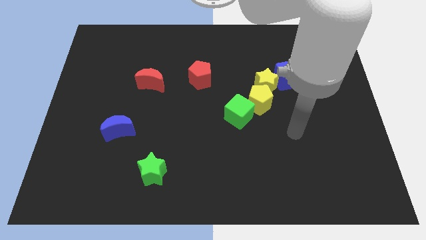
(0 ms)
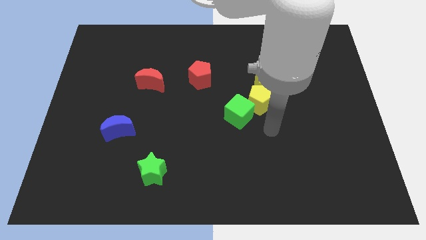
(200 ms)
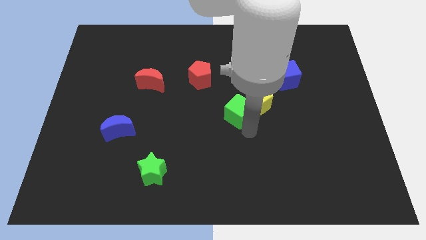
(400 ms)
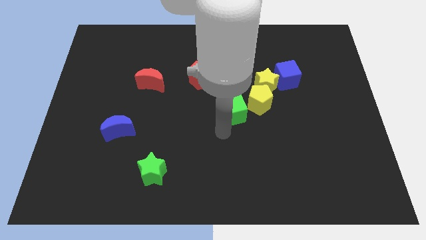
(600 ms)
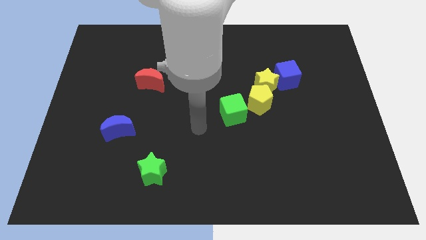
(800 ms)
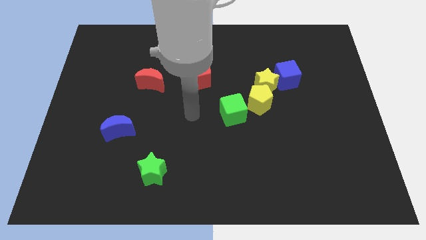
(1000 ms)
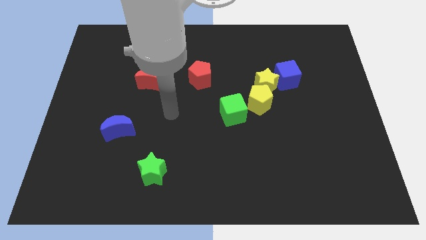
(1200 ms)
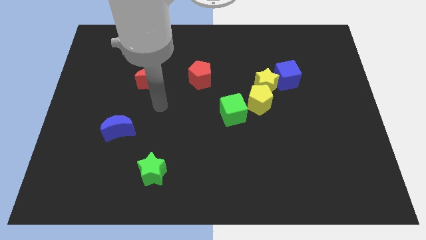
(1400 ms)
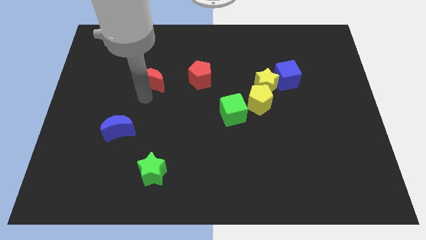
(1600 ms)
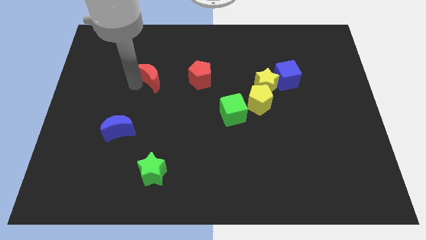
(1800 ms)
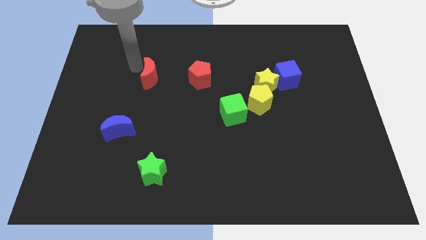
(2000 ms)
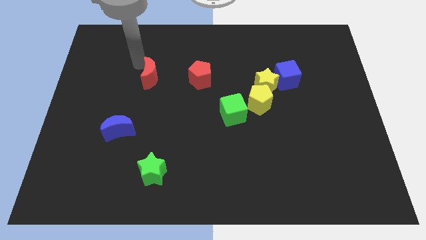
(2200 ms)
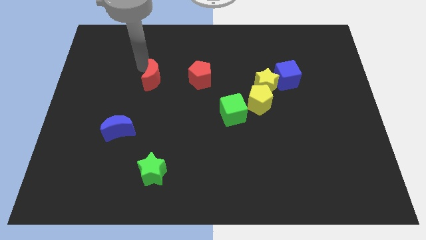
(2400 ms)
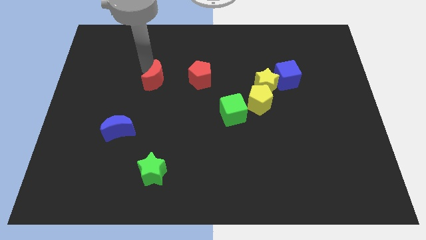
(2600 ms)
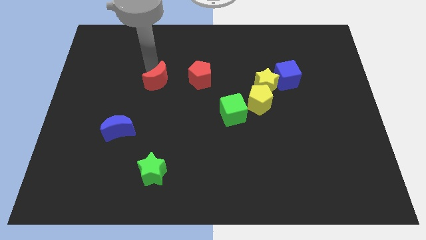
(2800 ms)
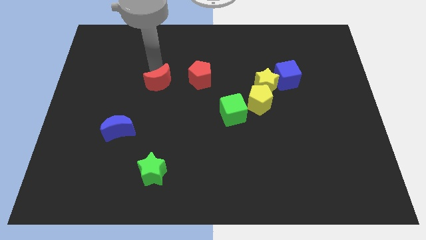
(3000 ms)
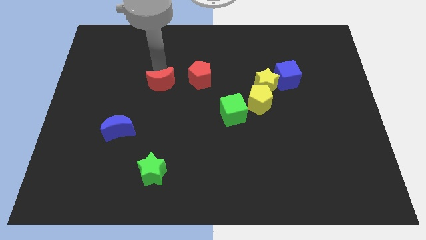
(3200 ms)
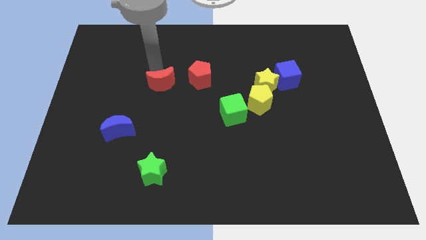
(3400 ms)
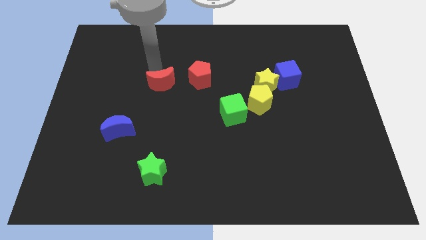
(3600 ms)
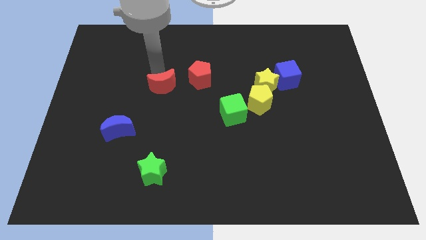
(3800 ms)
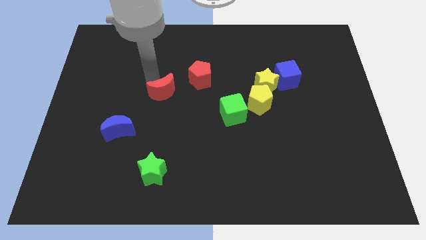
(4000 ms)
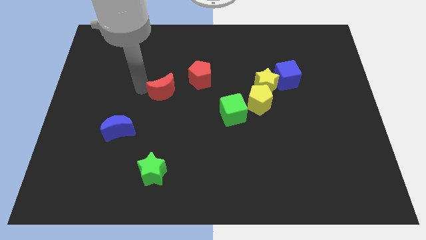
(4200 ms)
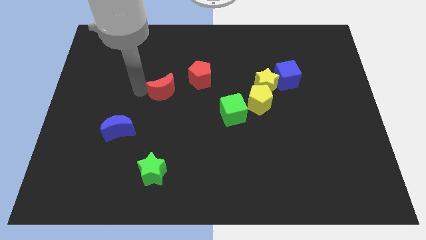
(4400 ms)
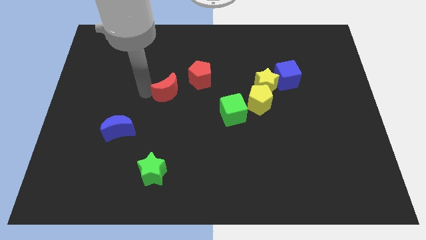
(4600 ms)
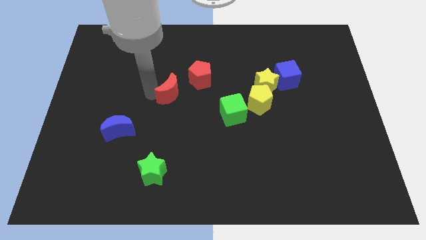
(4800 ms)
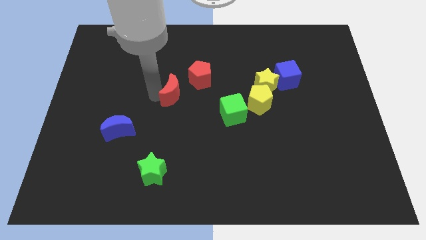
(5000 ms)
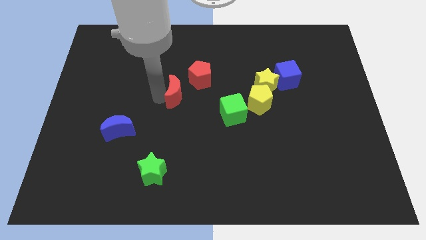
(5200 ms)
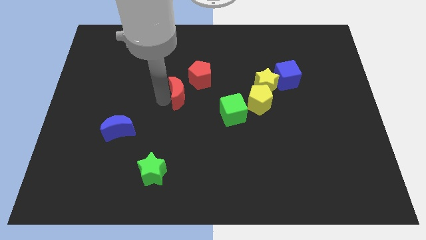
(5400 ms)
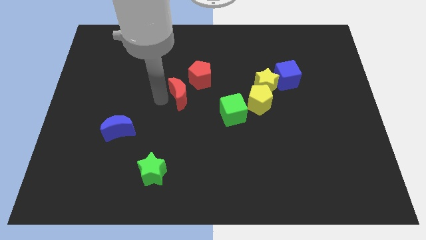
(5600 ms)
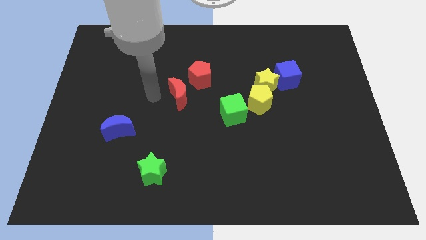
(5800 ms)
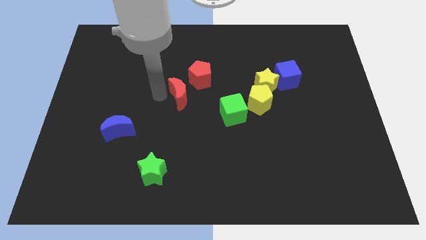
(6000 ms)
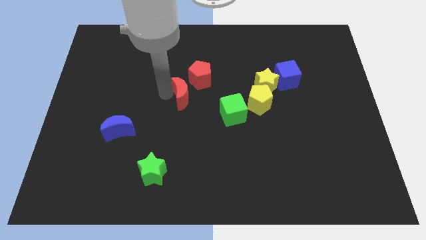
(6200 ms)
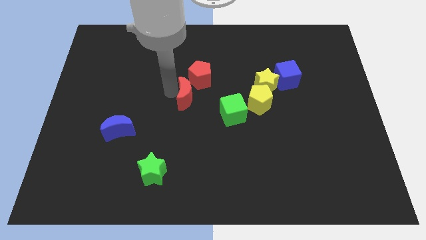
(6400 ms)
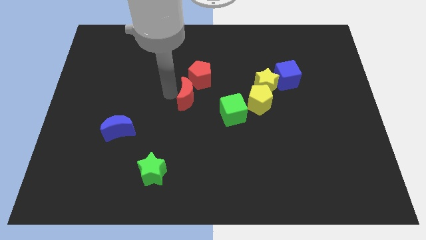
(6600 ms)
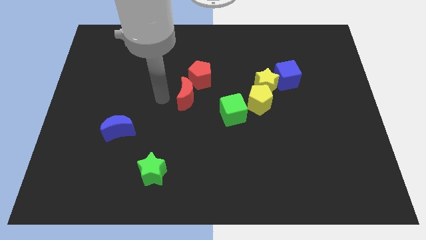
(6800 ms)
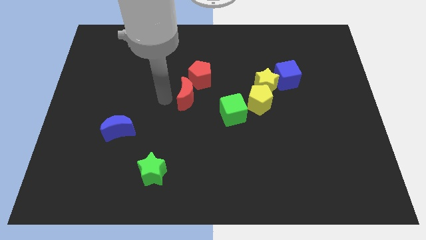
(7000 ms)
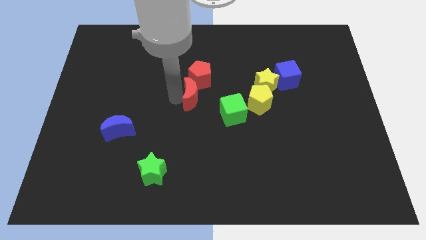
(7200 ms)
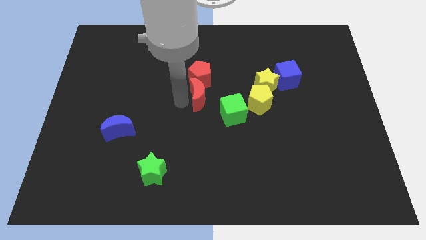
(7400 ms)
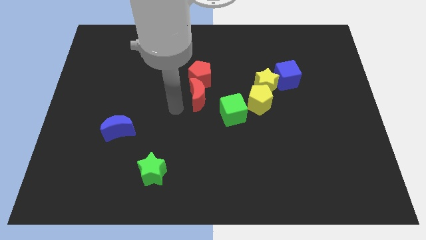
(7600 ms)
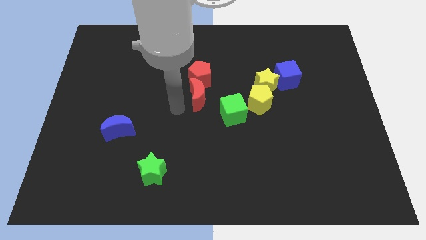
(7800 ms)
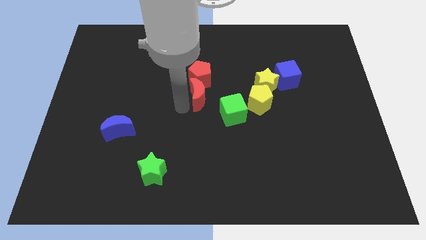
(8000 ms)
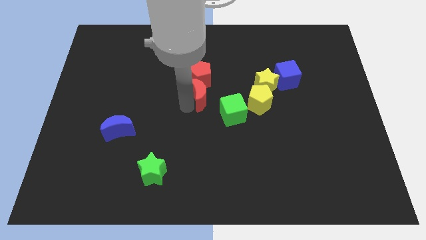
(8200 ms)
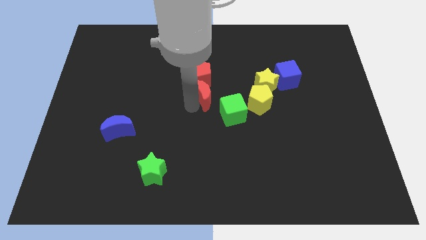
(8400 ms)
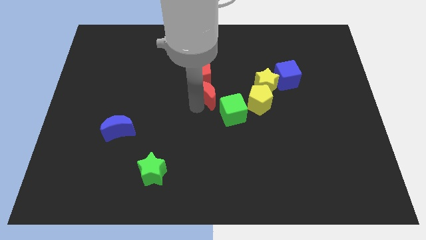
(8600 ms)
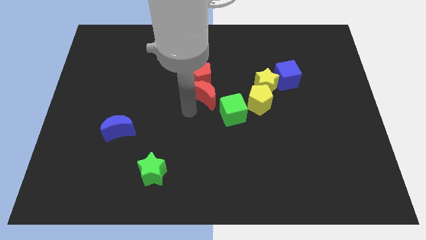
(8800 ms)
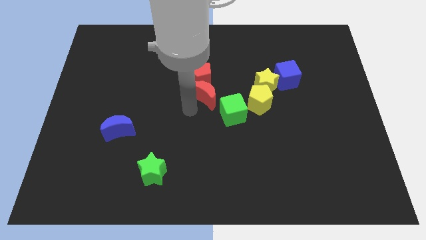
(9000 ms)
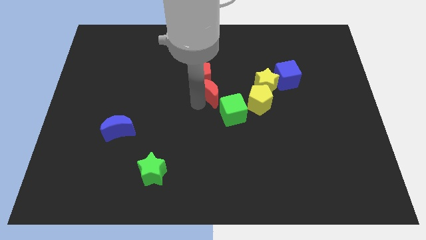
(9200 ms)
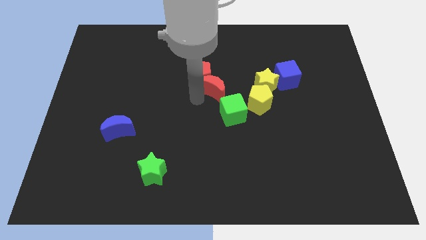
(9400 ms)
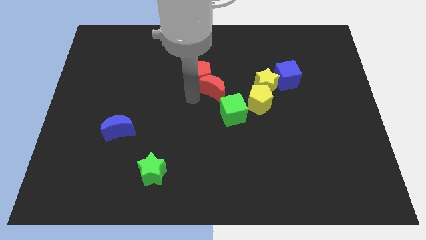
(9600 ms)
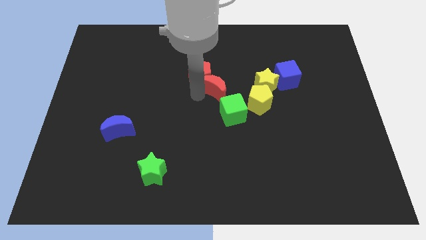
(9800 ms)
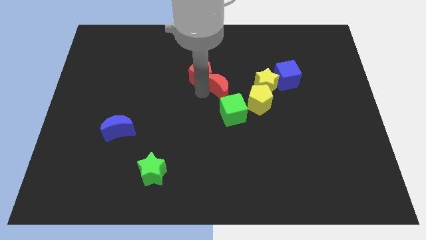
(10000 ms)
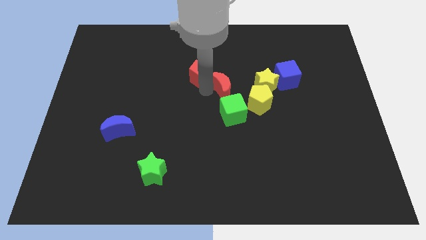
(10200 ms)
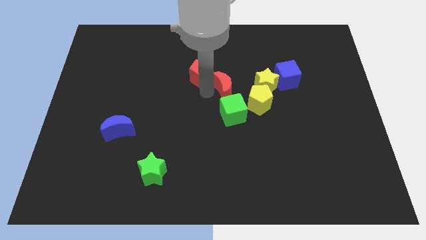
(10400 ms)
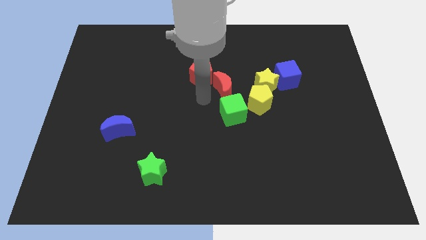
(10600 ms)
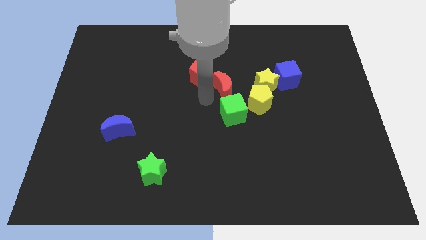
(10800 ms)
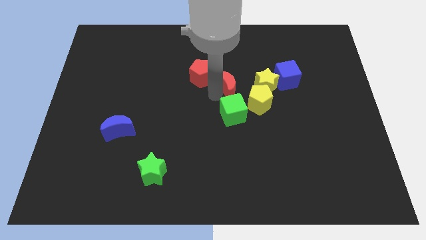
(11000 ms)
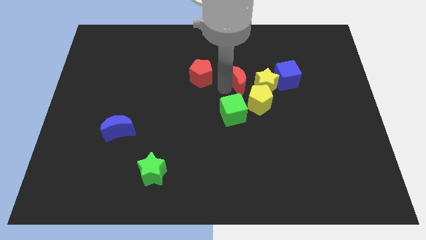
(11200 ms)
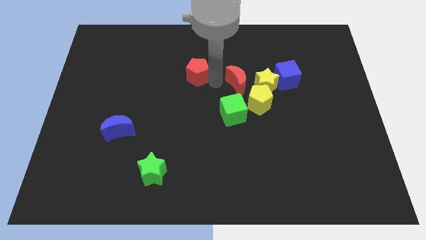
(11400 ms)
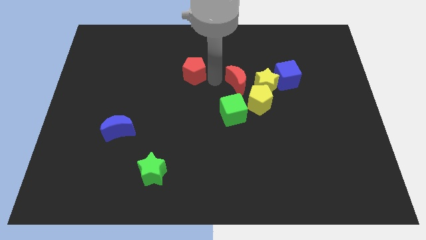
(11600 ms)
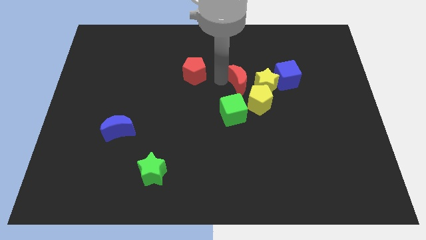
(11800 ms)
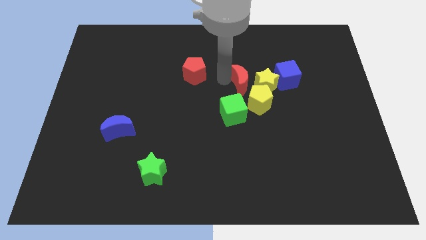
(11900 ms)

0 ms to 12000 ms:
put the red moon close to the yellow star

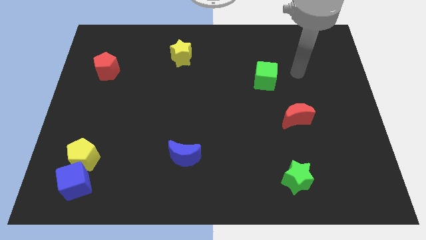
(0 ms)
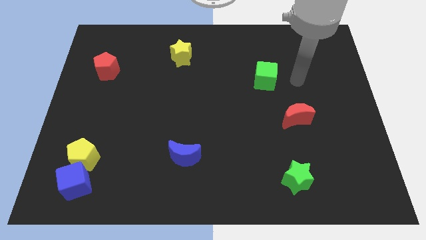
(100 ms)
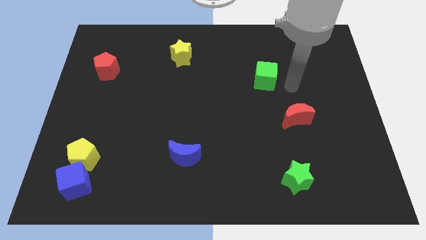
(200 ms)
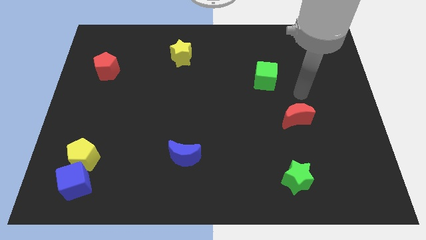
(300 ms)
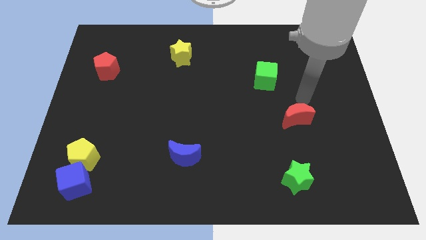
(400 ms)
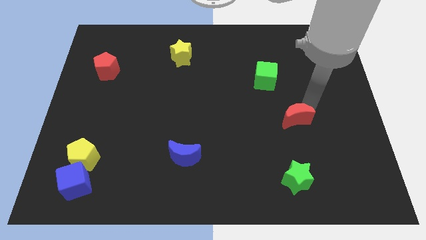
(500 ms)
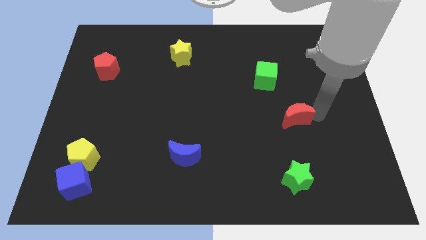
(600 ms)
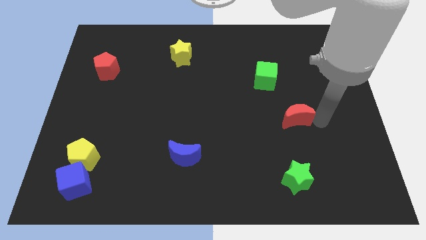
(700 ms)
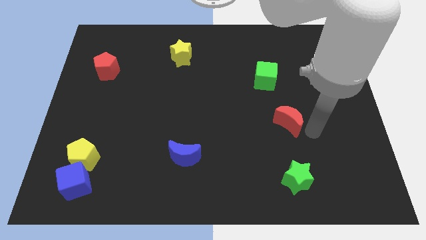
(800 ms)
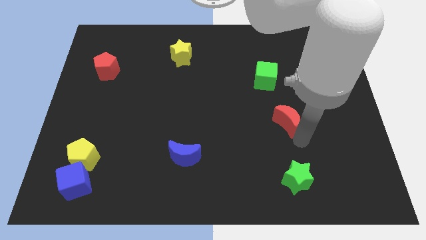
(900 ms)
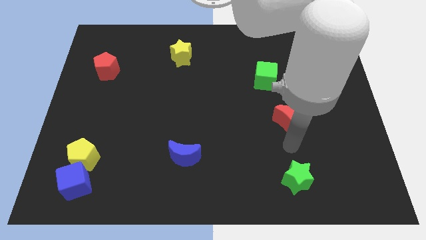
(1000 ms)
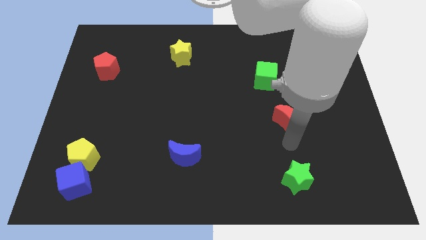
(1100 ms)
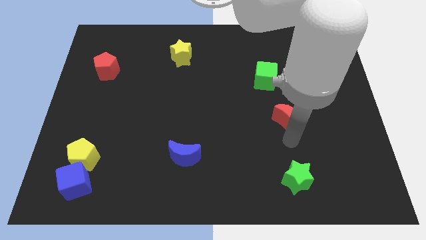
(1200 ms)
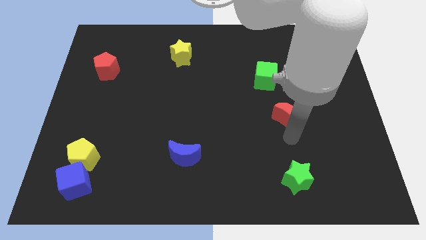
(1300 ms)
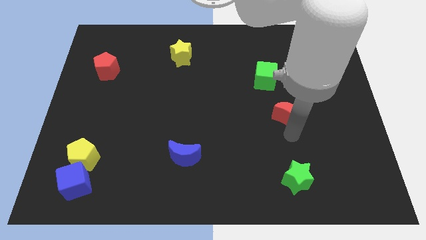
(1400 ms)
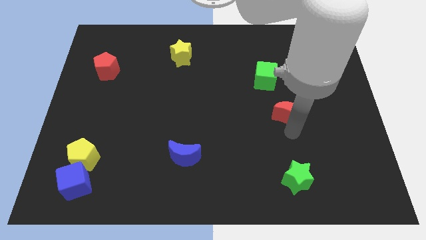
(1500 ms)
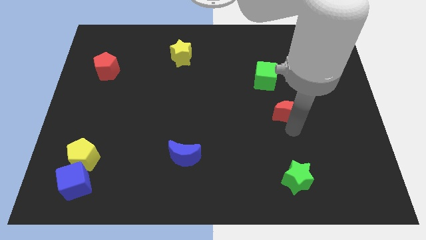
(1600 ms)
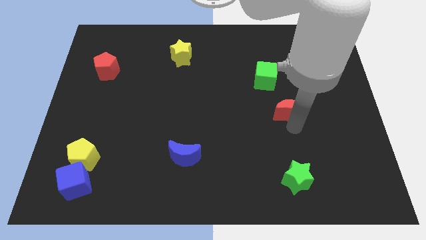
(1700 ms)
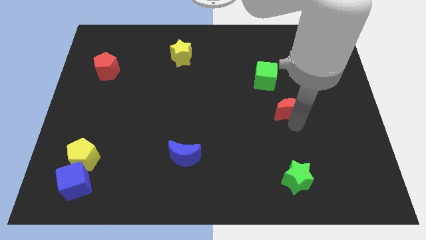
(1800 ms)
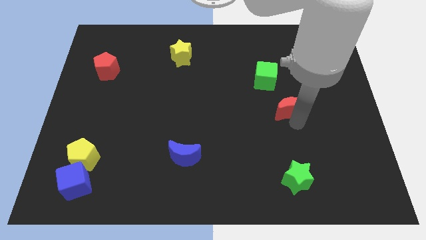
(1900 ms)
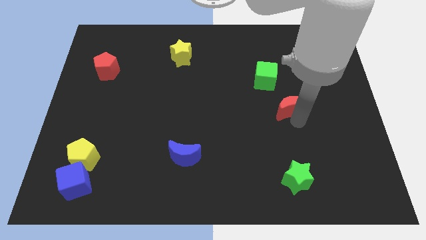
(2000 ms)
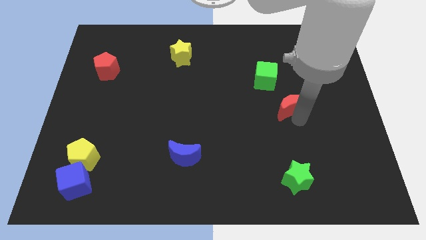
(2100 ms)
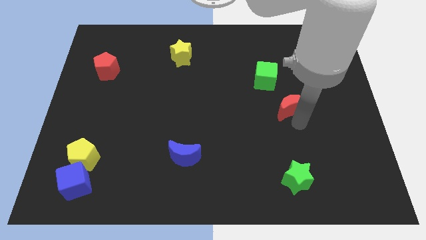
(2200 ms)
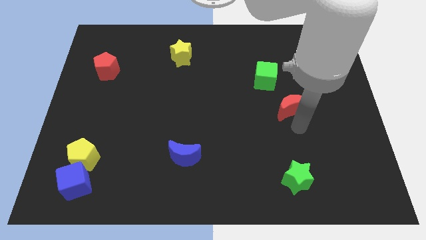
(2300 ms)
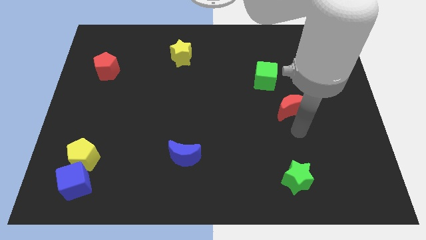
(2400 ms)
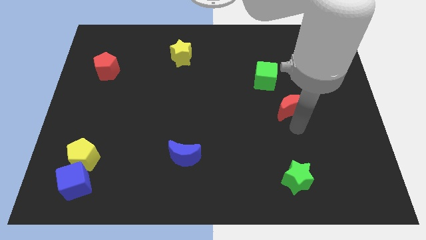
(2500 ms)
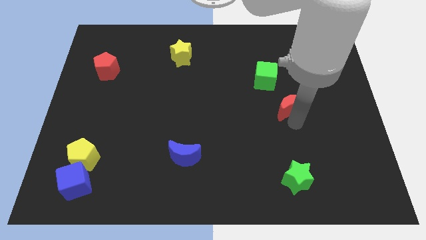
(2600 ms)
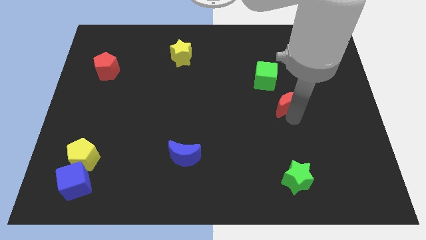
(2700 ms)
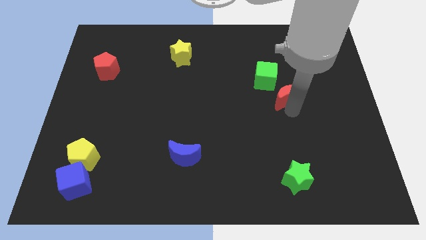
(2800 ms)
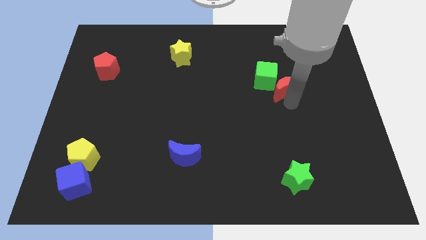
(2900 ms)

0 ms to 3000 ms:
put the red moon close to the green cube
